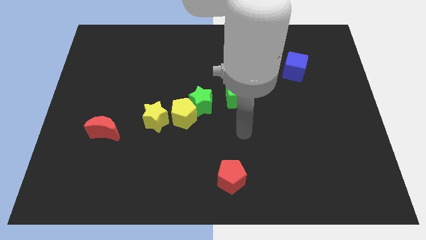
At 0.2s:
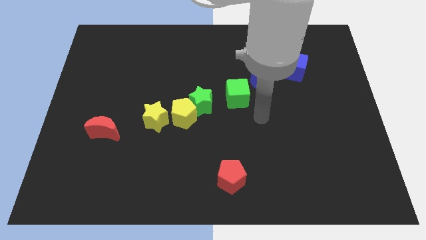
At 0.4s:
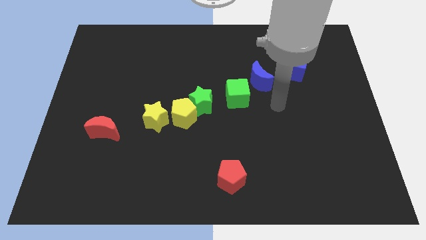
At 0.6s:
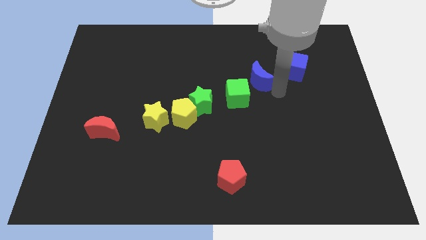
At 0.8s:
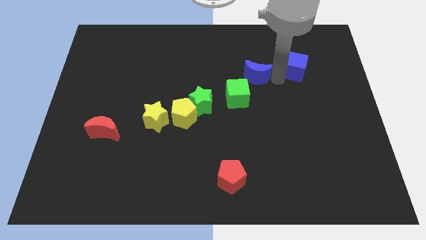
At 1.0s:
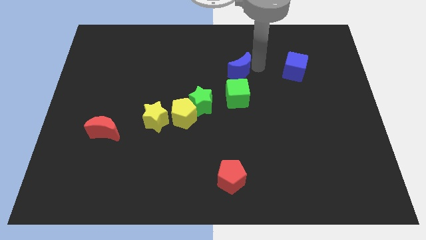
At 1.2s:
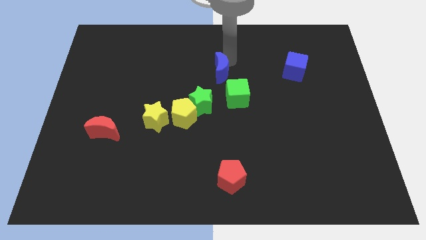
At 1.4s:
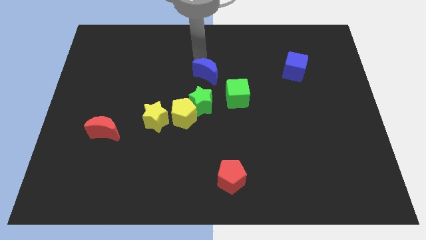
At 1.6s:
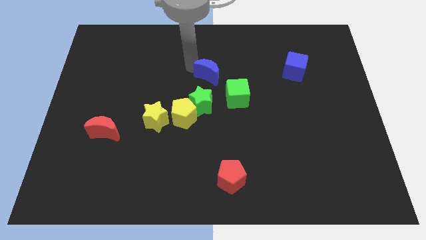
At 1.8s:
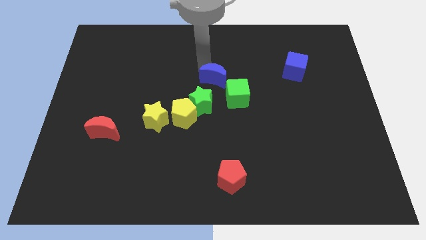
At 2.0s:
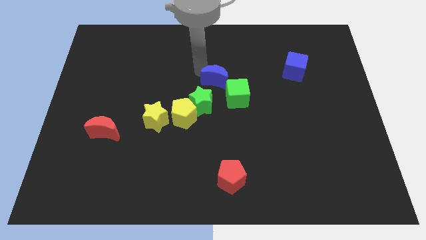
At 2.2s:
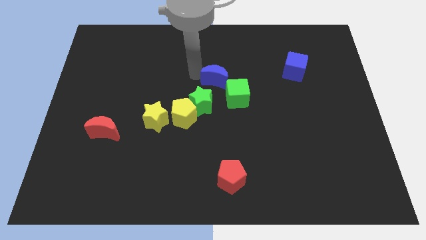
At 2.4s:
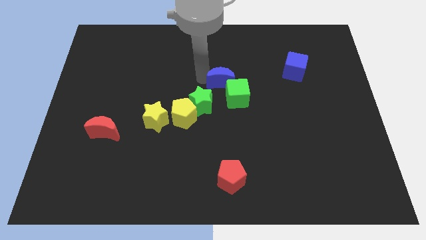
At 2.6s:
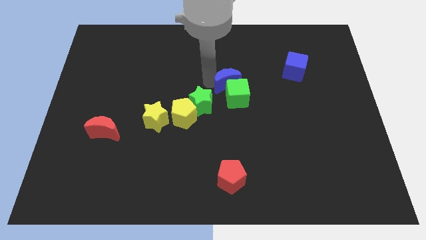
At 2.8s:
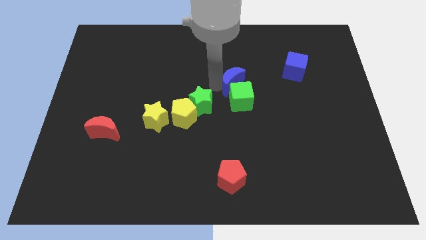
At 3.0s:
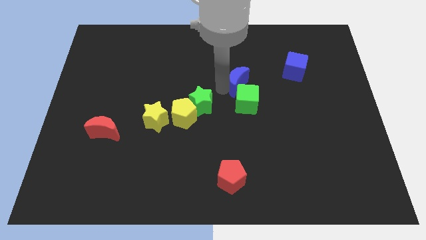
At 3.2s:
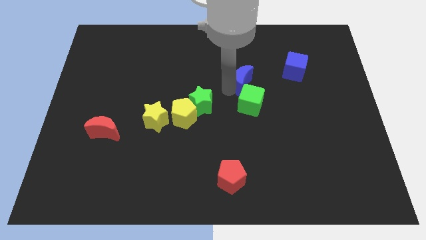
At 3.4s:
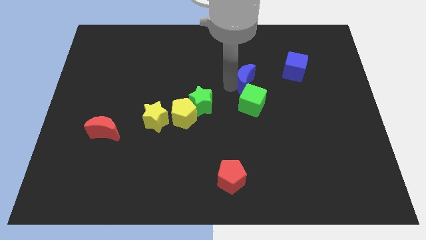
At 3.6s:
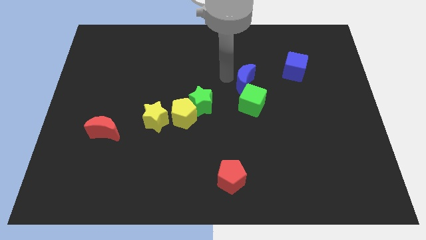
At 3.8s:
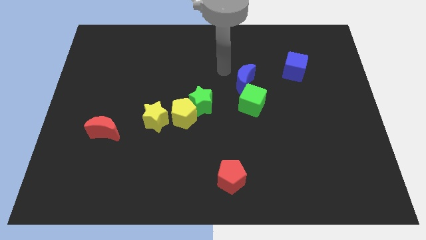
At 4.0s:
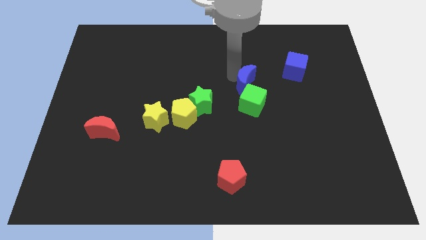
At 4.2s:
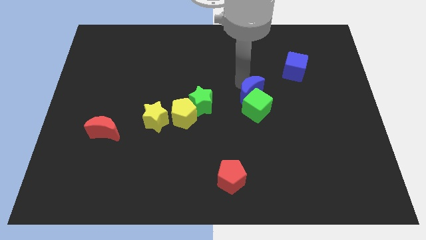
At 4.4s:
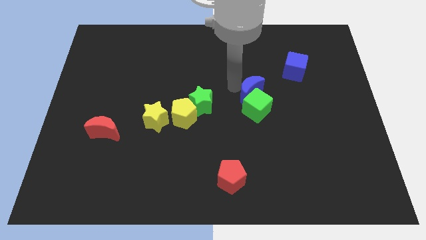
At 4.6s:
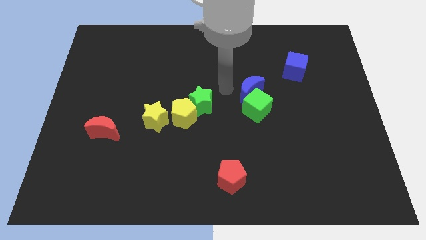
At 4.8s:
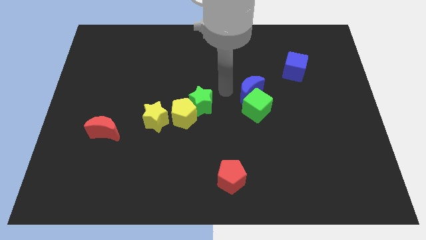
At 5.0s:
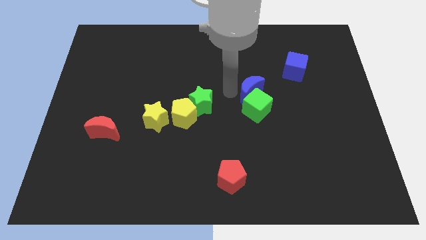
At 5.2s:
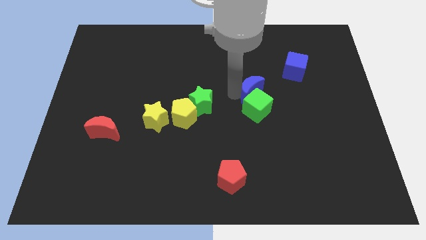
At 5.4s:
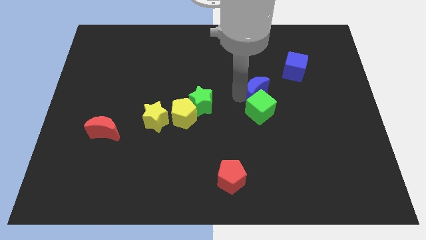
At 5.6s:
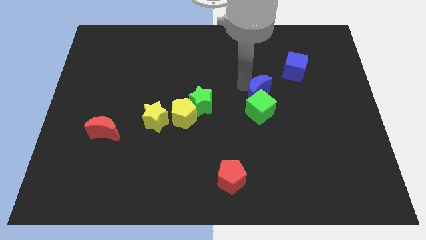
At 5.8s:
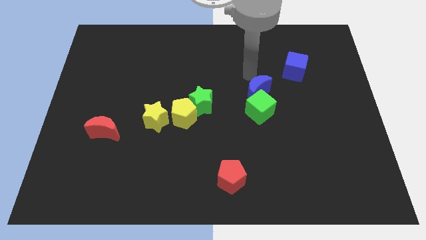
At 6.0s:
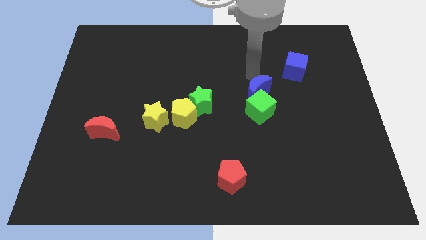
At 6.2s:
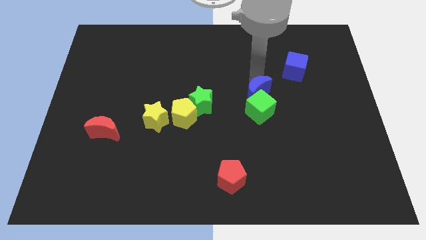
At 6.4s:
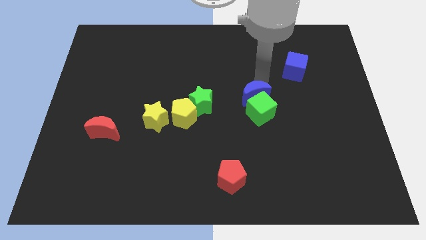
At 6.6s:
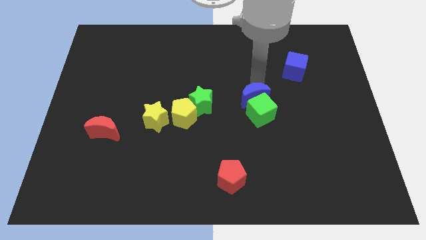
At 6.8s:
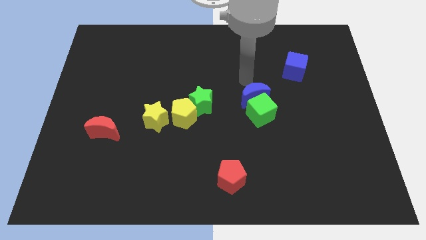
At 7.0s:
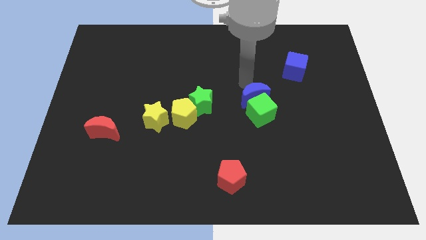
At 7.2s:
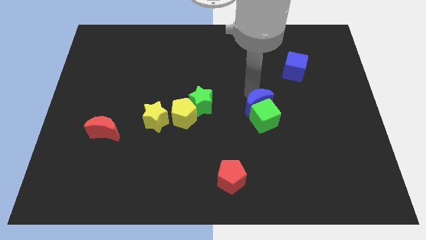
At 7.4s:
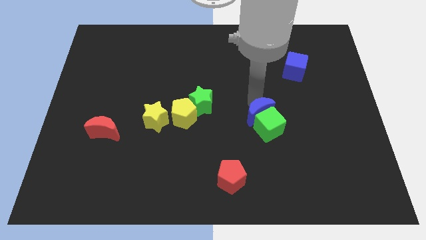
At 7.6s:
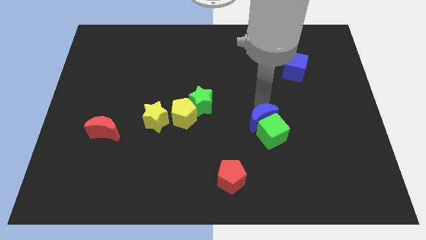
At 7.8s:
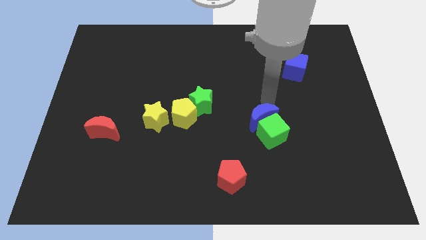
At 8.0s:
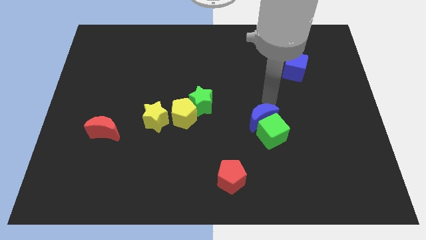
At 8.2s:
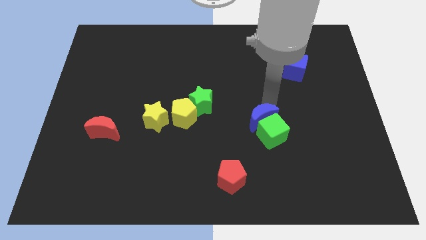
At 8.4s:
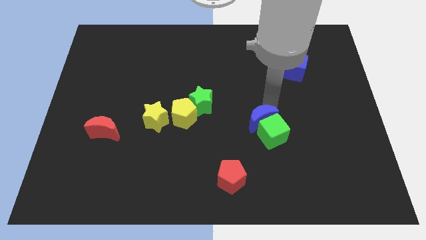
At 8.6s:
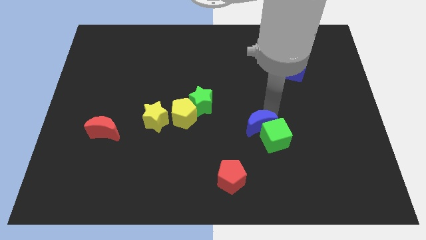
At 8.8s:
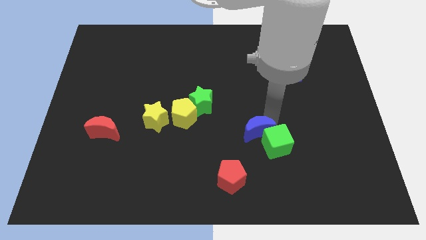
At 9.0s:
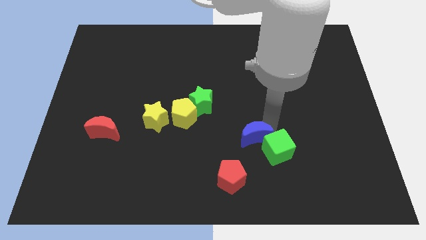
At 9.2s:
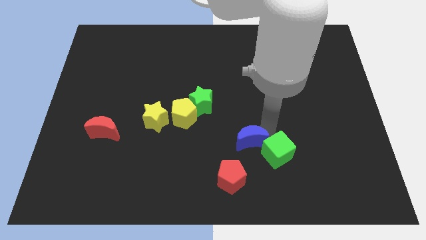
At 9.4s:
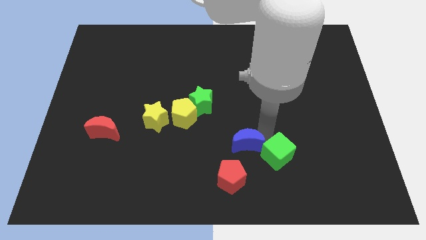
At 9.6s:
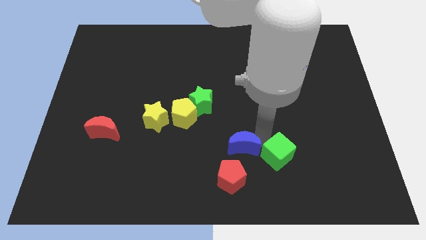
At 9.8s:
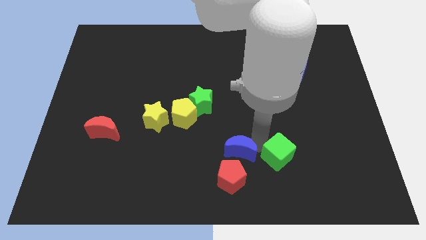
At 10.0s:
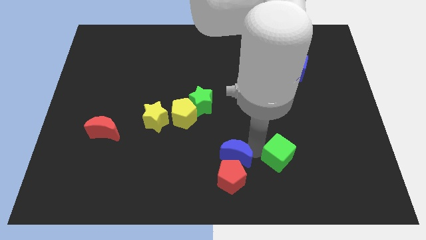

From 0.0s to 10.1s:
push the blue moon close to the red pentagon
